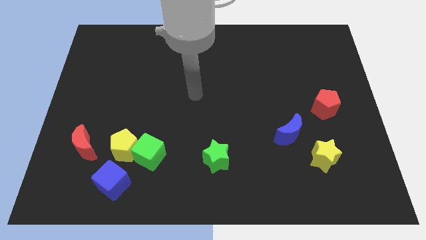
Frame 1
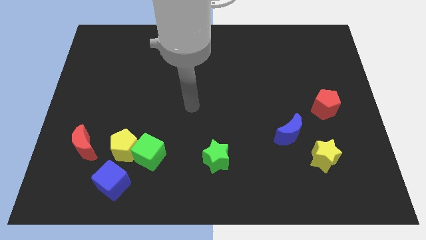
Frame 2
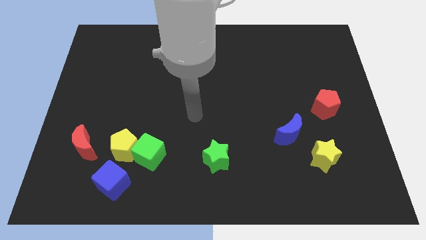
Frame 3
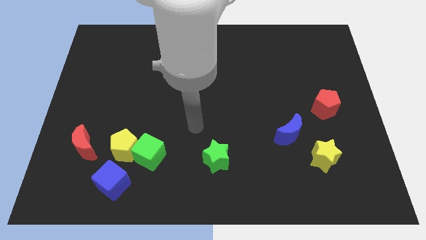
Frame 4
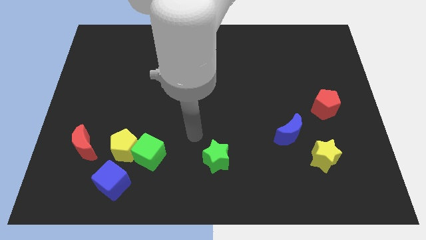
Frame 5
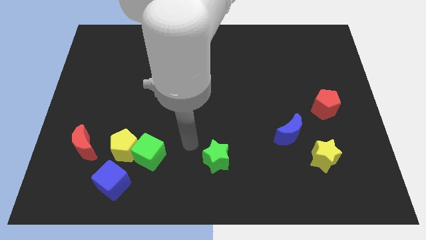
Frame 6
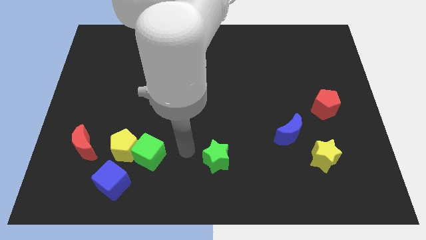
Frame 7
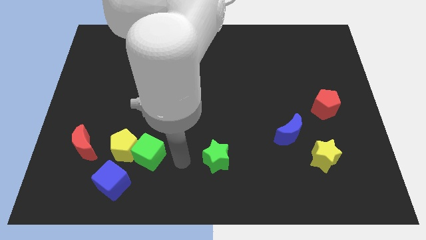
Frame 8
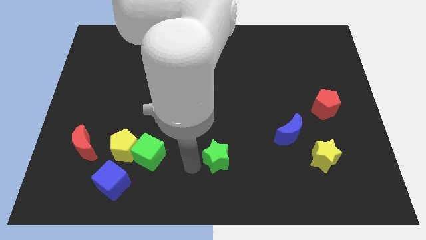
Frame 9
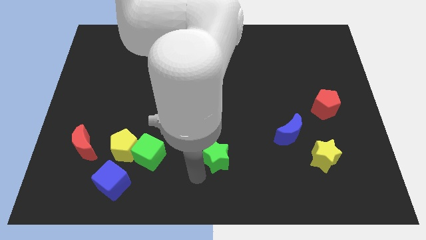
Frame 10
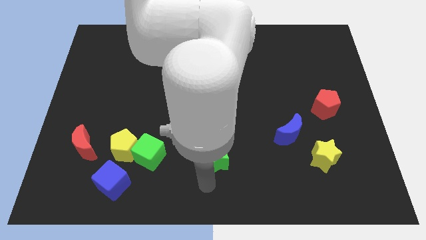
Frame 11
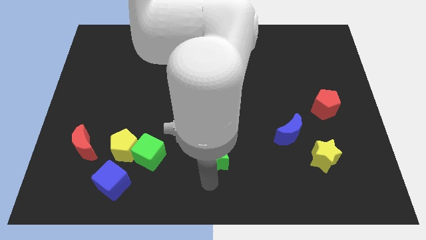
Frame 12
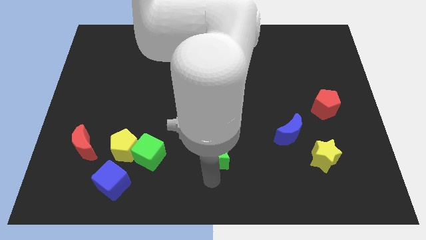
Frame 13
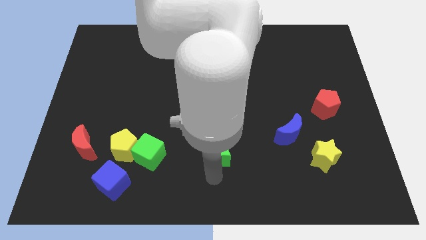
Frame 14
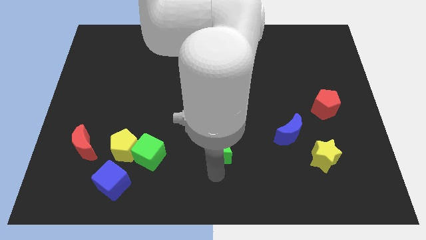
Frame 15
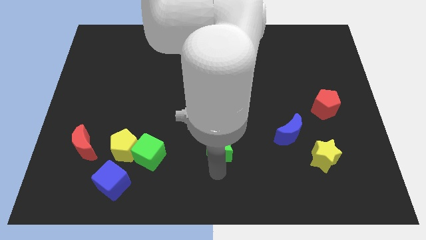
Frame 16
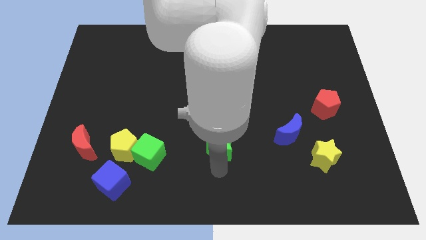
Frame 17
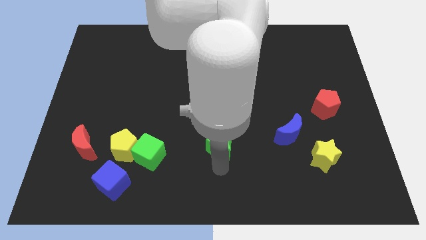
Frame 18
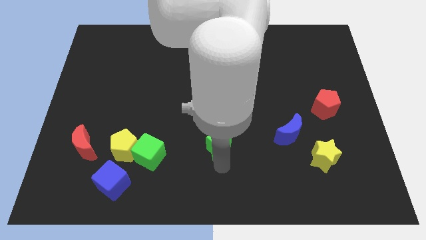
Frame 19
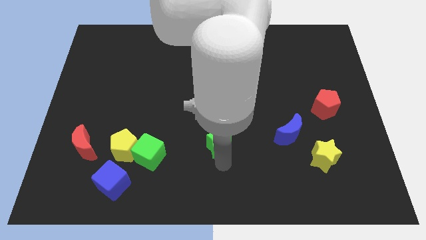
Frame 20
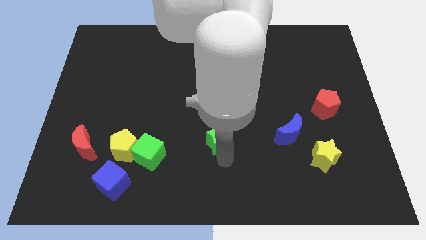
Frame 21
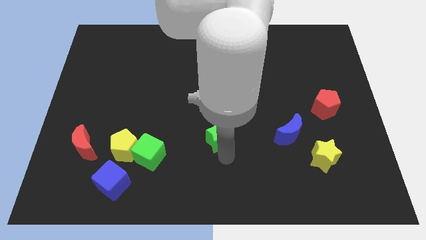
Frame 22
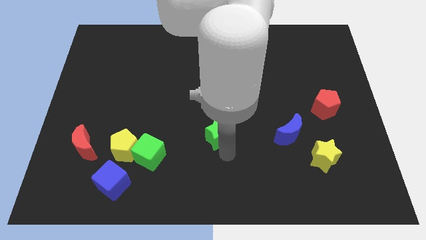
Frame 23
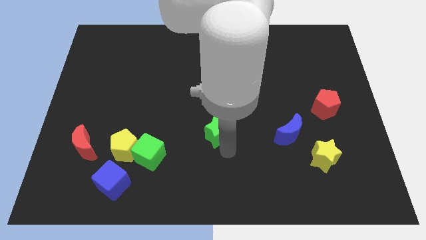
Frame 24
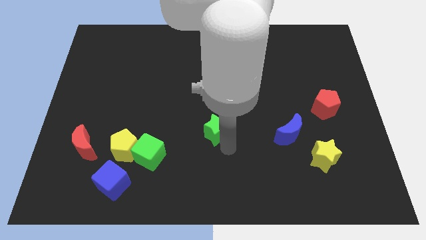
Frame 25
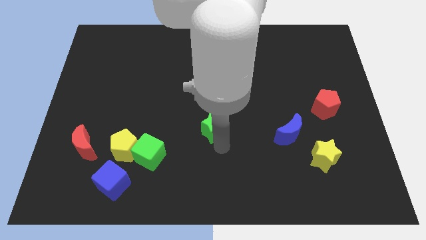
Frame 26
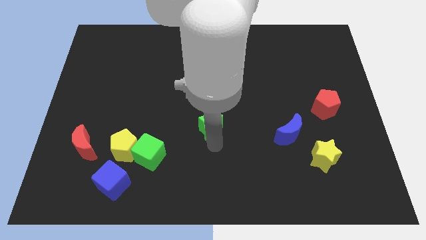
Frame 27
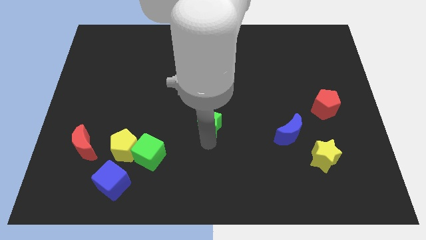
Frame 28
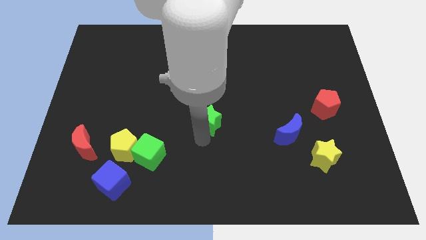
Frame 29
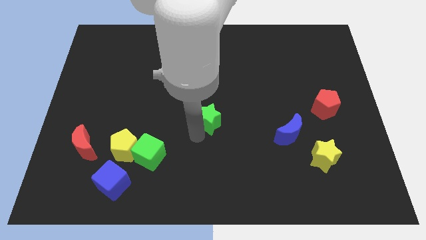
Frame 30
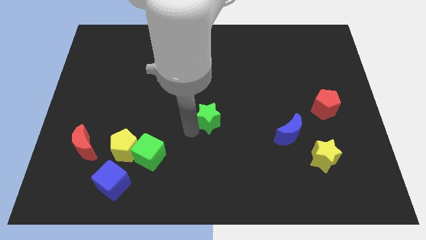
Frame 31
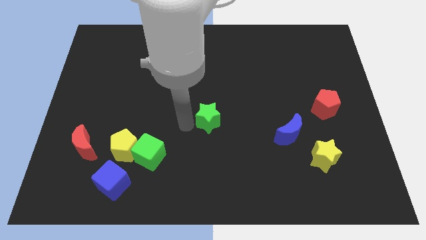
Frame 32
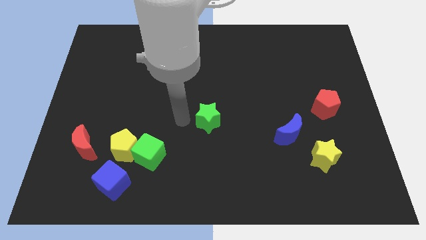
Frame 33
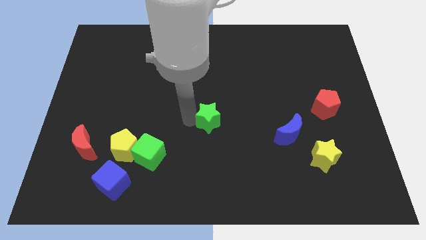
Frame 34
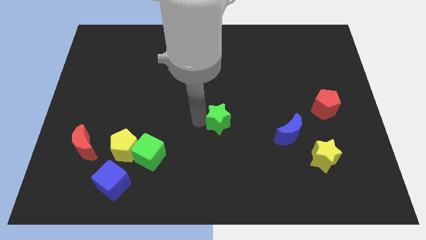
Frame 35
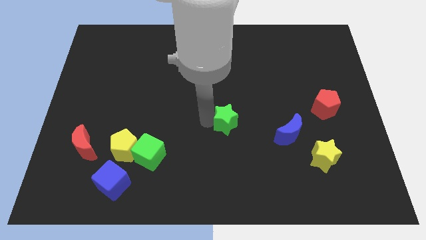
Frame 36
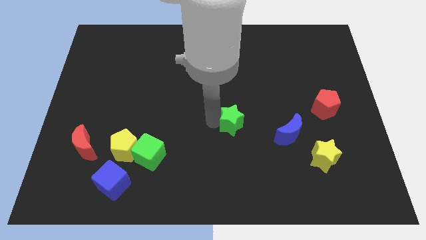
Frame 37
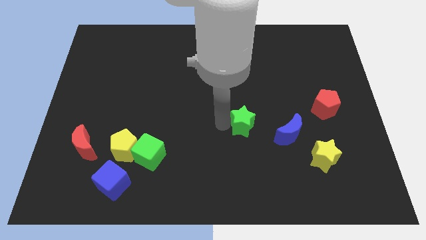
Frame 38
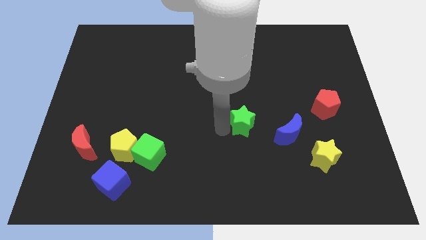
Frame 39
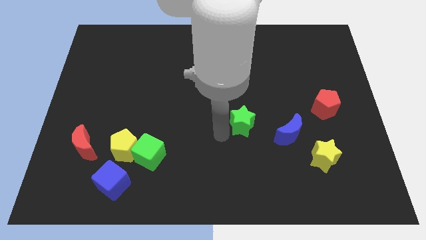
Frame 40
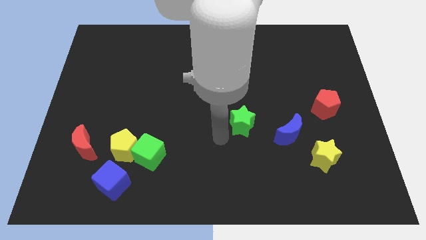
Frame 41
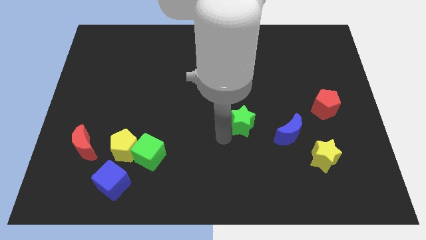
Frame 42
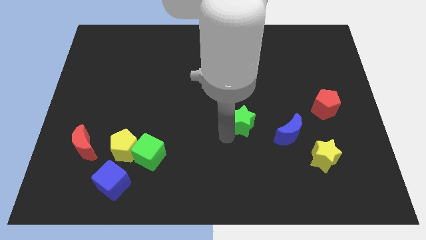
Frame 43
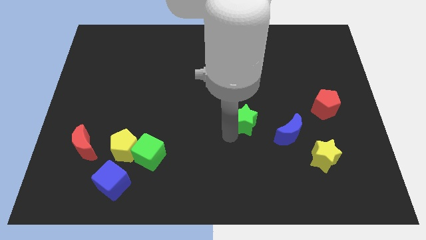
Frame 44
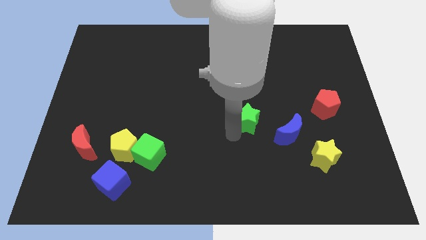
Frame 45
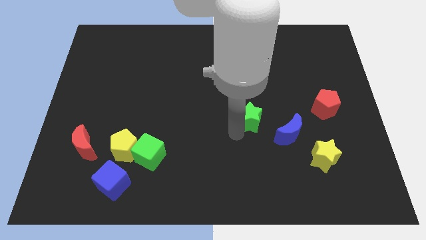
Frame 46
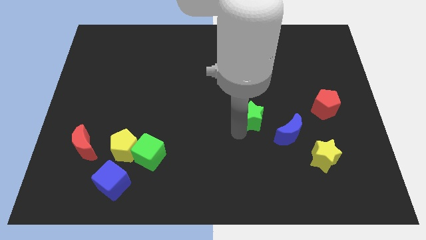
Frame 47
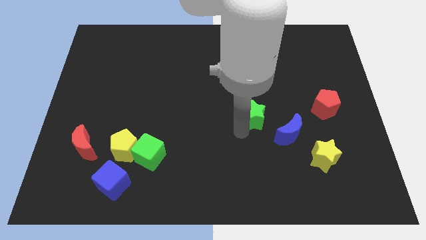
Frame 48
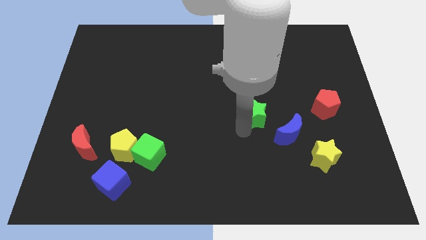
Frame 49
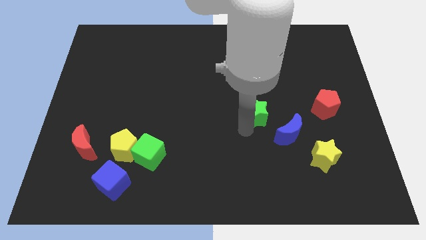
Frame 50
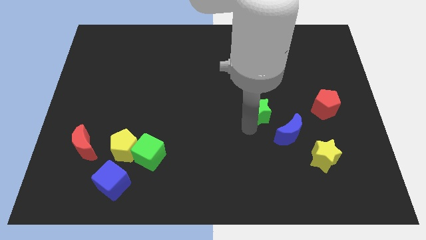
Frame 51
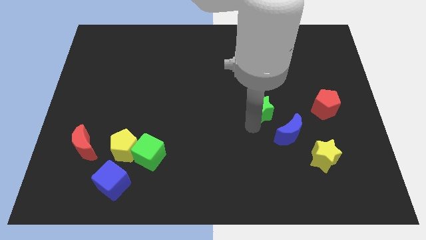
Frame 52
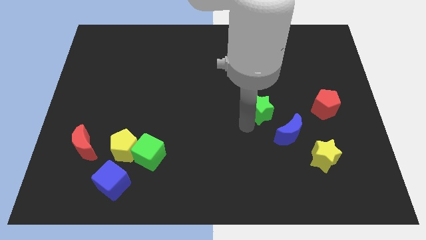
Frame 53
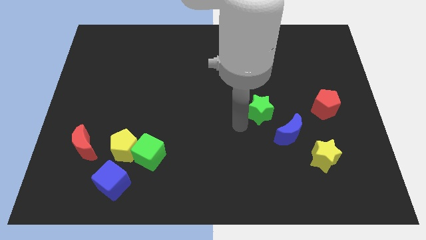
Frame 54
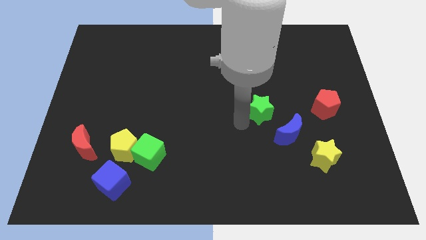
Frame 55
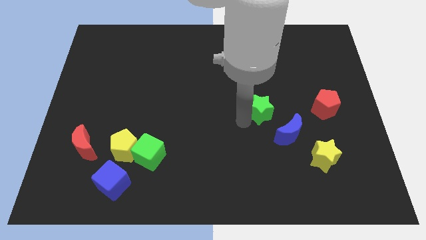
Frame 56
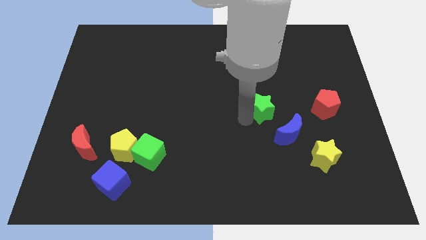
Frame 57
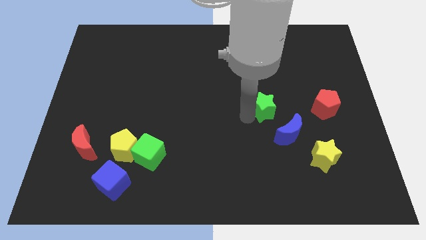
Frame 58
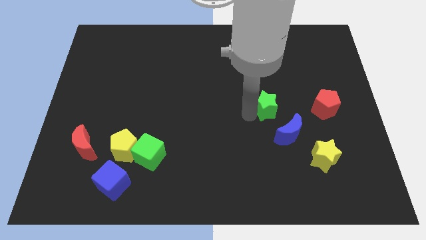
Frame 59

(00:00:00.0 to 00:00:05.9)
move the green star above the blue moon
